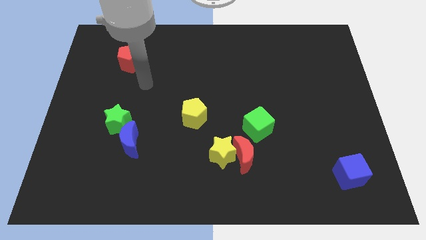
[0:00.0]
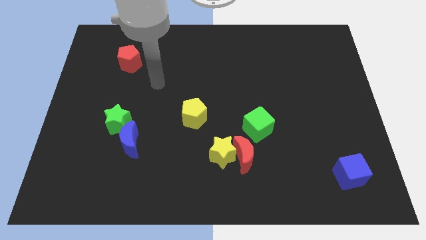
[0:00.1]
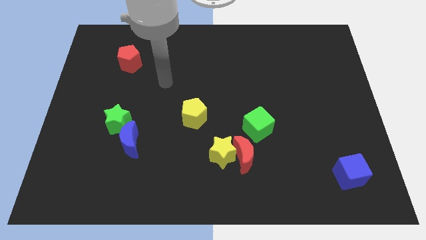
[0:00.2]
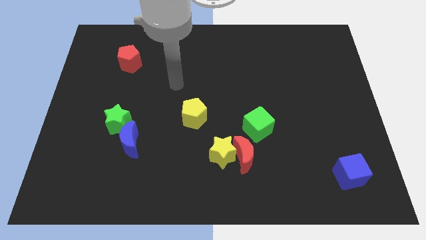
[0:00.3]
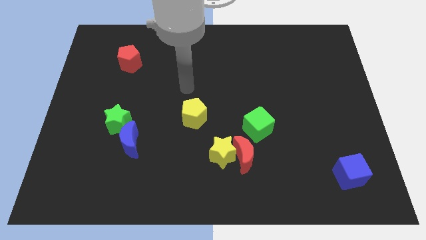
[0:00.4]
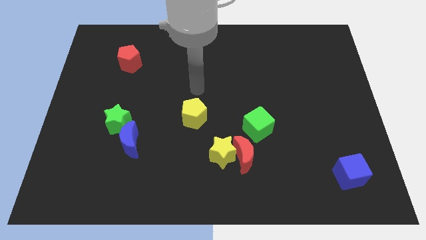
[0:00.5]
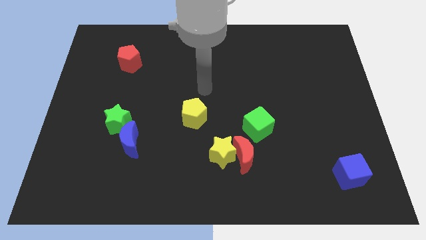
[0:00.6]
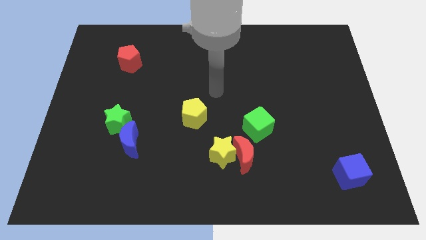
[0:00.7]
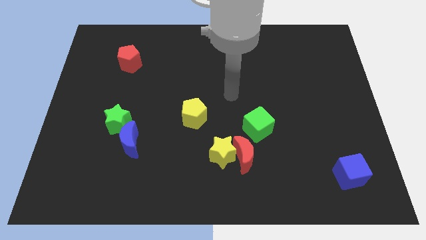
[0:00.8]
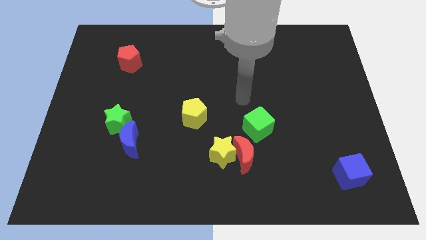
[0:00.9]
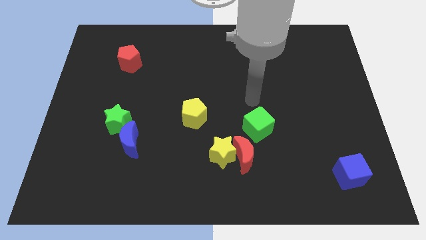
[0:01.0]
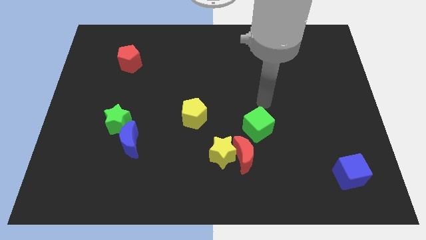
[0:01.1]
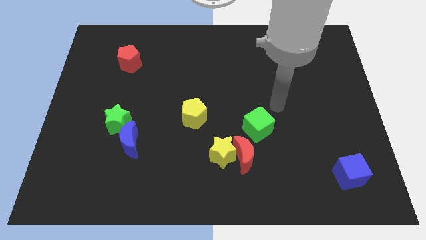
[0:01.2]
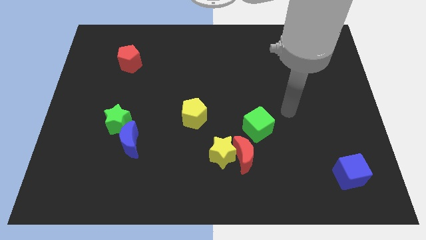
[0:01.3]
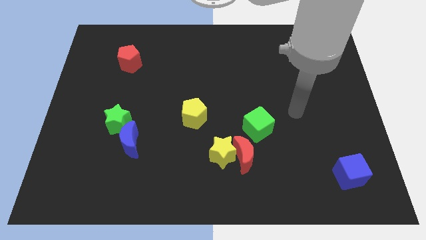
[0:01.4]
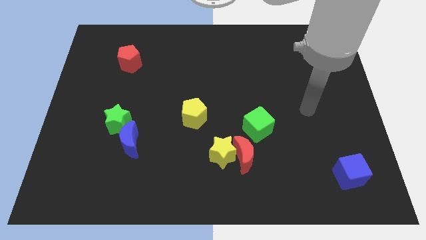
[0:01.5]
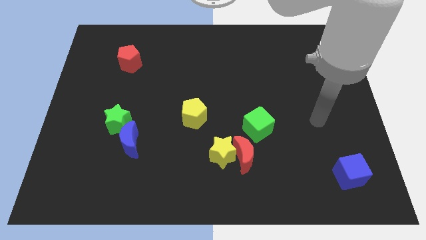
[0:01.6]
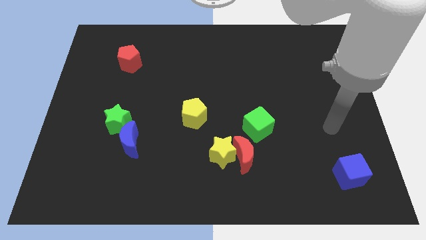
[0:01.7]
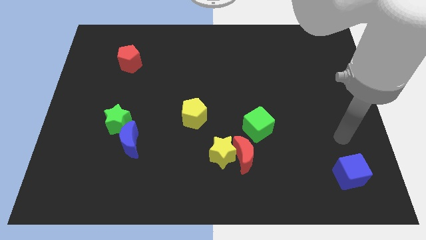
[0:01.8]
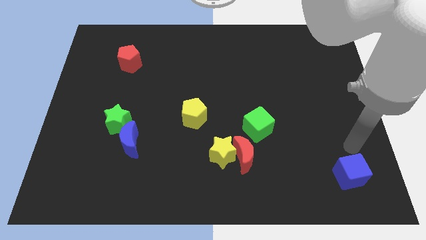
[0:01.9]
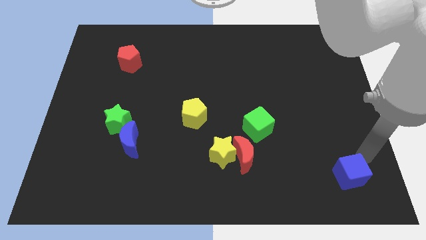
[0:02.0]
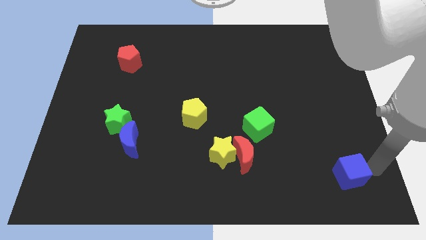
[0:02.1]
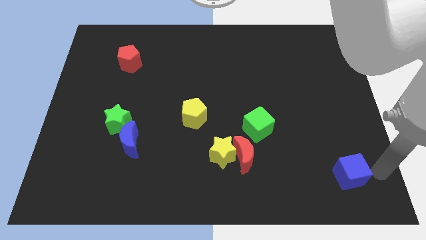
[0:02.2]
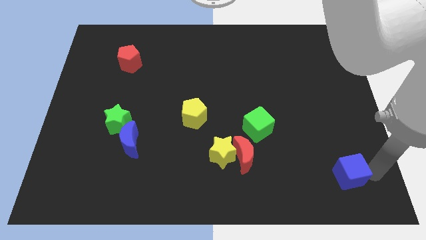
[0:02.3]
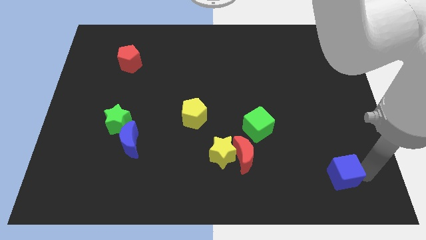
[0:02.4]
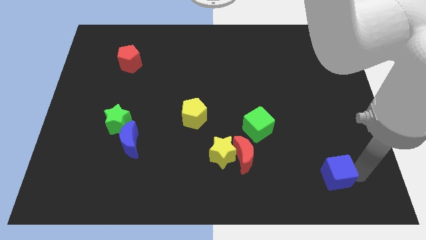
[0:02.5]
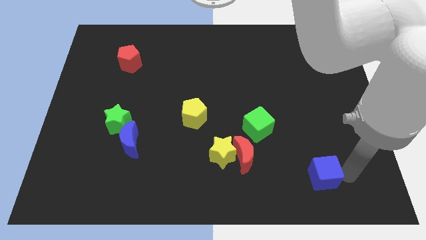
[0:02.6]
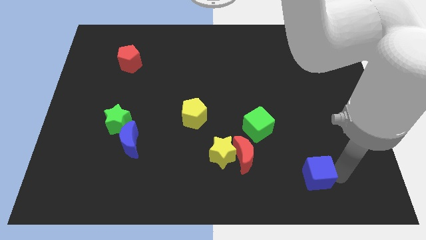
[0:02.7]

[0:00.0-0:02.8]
move the blue cube to the left slightly

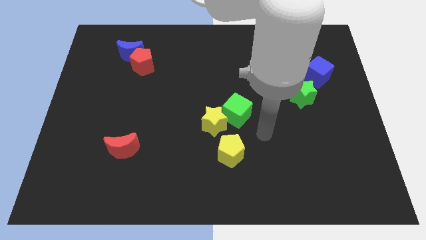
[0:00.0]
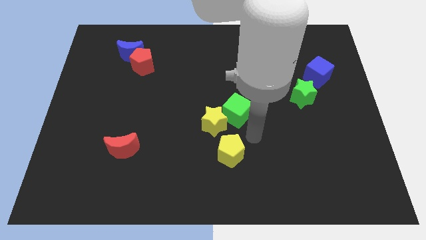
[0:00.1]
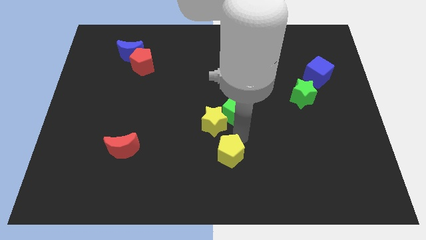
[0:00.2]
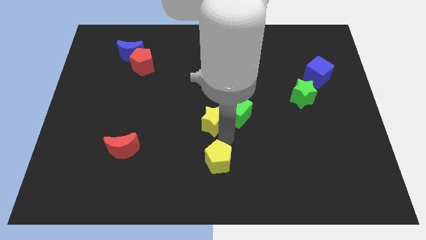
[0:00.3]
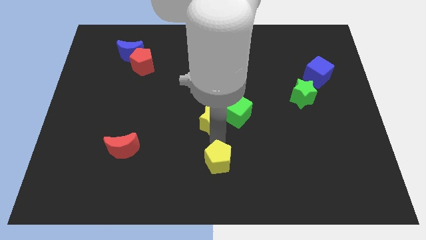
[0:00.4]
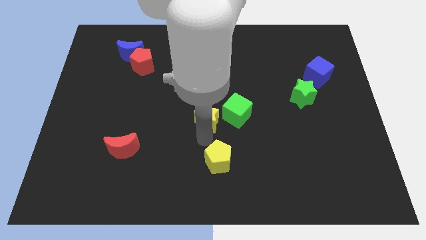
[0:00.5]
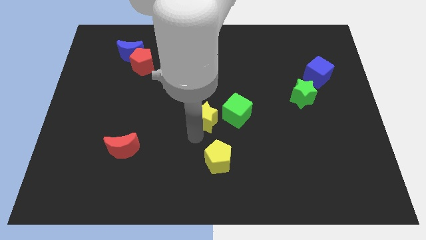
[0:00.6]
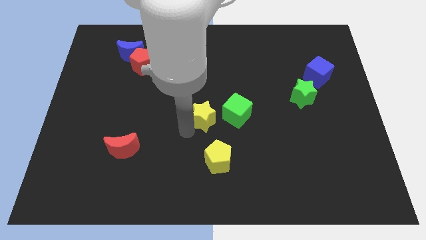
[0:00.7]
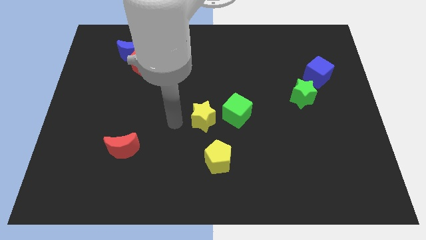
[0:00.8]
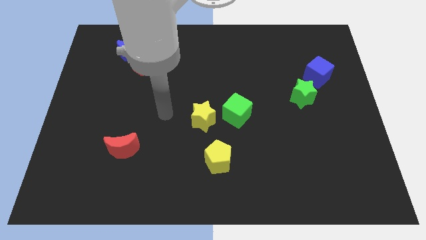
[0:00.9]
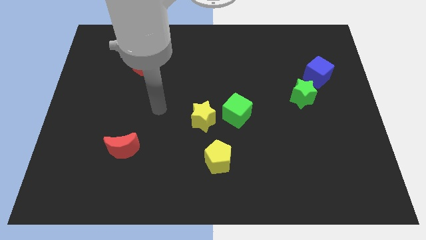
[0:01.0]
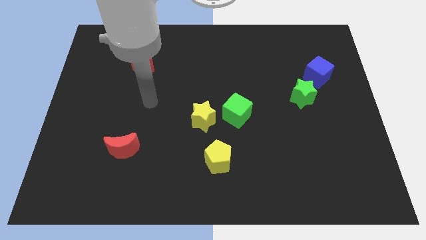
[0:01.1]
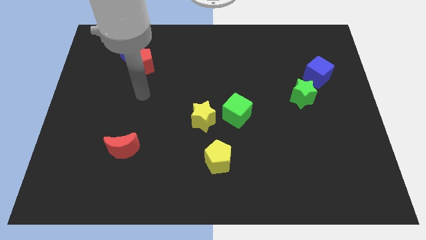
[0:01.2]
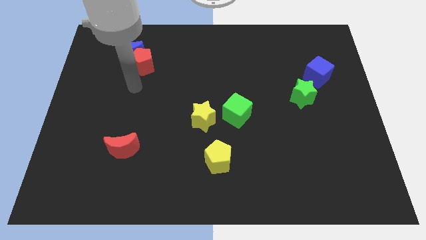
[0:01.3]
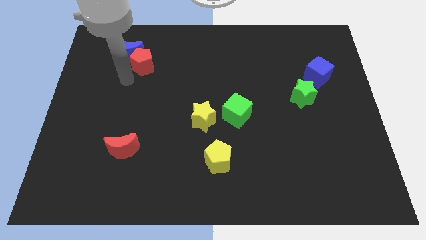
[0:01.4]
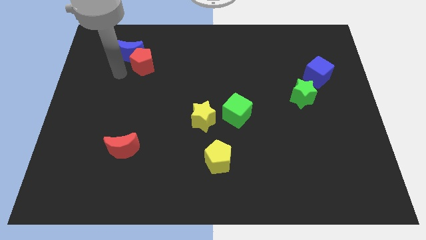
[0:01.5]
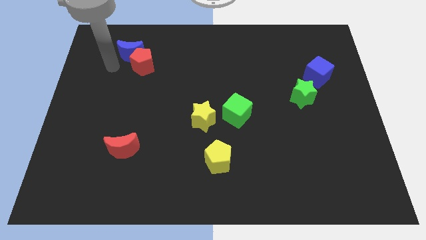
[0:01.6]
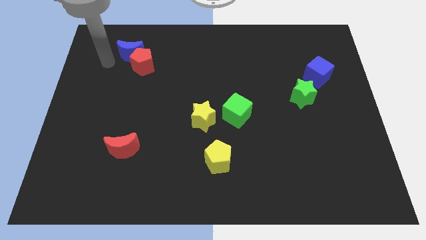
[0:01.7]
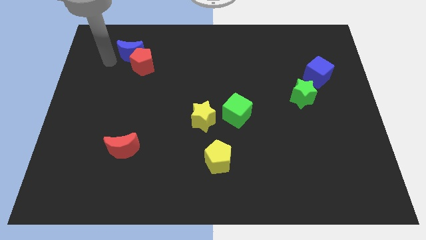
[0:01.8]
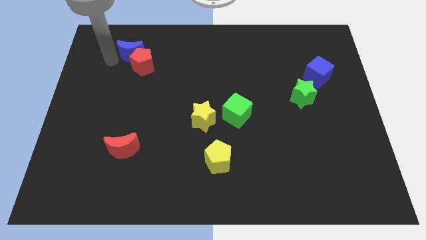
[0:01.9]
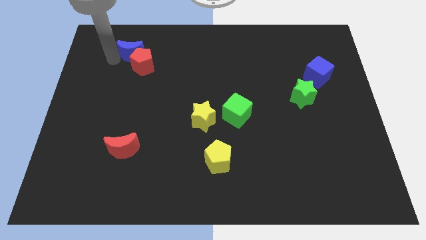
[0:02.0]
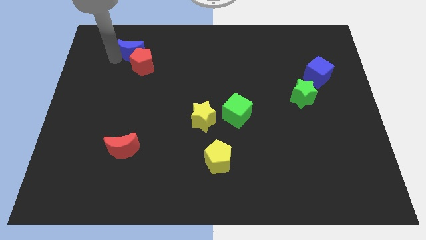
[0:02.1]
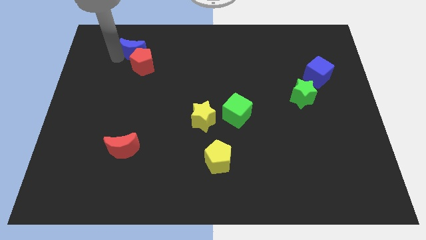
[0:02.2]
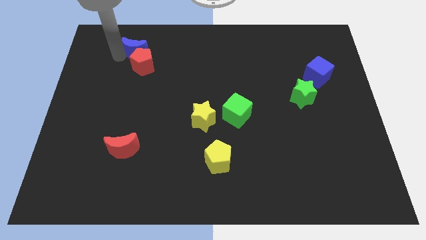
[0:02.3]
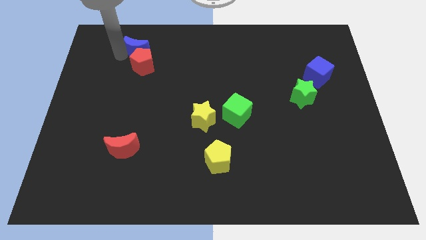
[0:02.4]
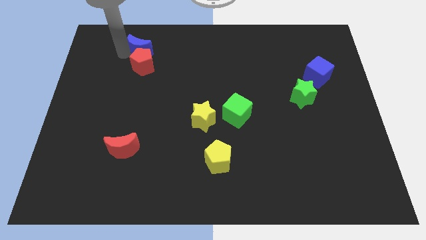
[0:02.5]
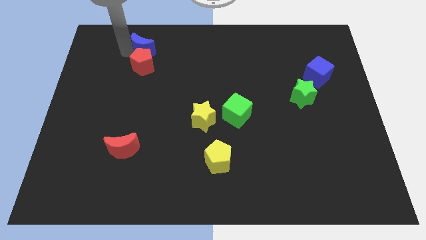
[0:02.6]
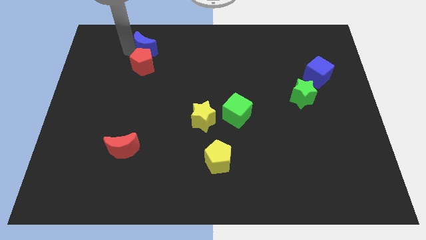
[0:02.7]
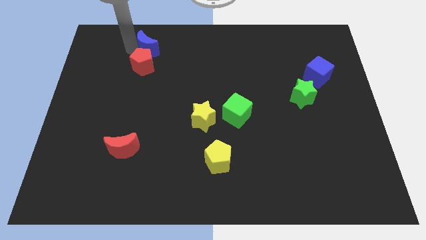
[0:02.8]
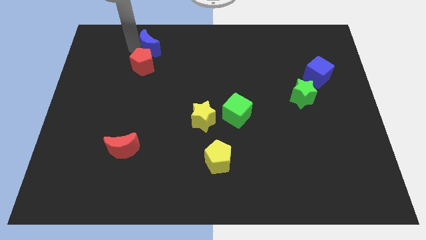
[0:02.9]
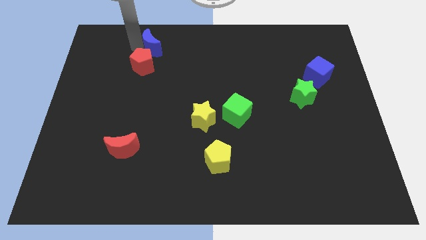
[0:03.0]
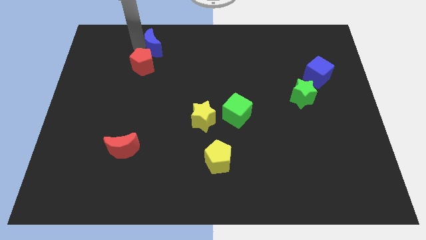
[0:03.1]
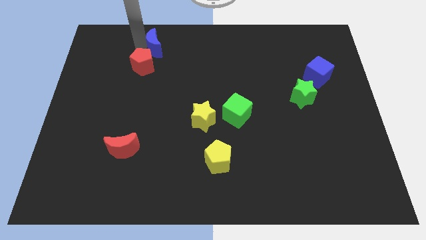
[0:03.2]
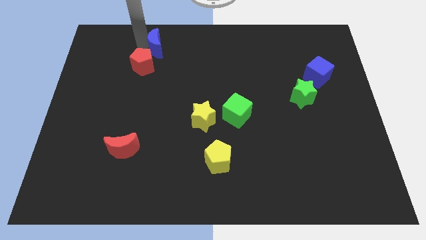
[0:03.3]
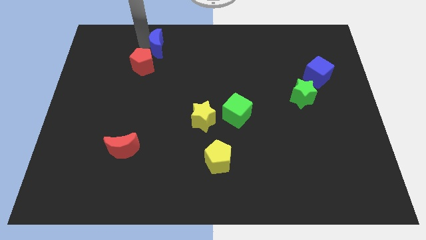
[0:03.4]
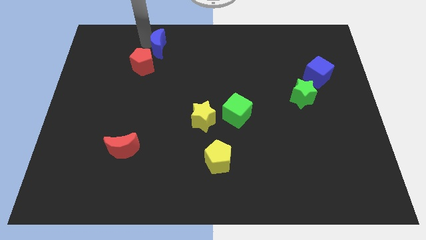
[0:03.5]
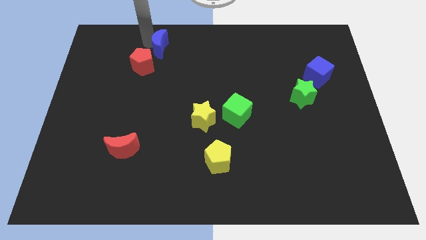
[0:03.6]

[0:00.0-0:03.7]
slightly push the blue moon right

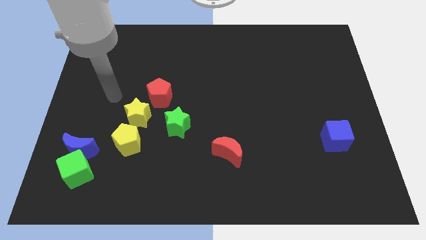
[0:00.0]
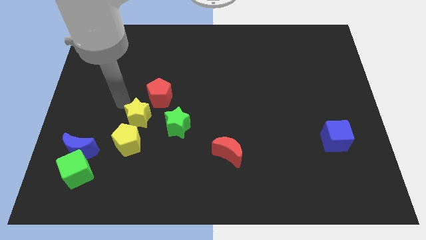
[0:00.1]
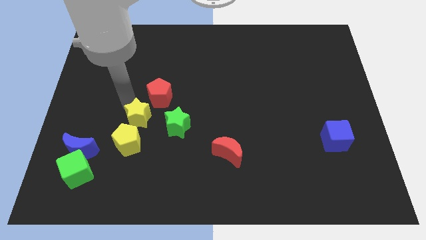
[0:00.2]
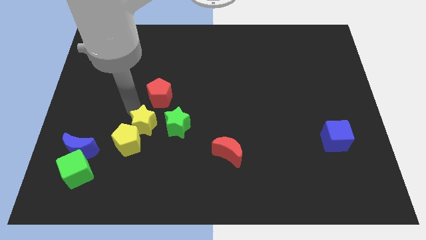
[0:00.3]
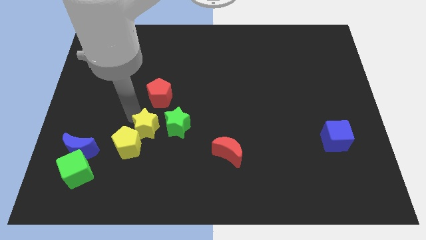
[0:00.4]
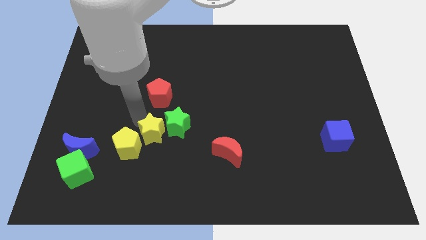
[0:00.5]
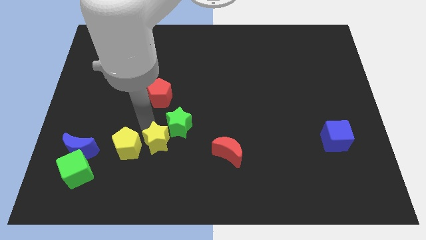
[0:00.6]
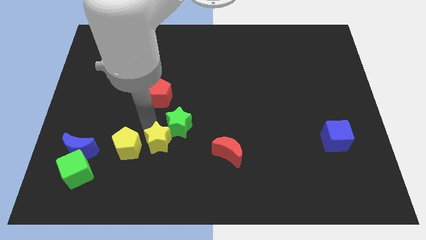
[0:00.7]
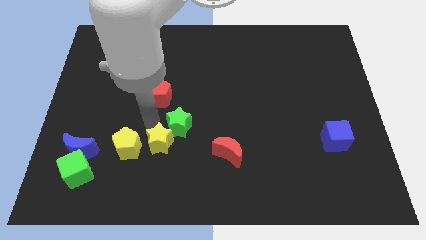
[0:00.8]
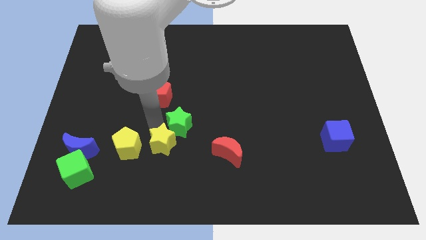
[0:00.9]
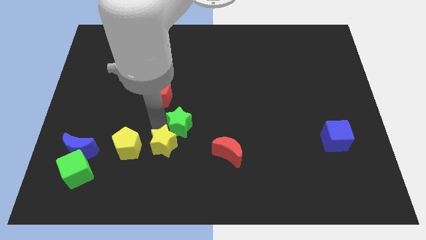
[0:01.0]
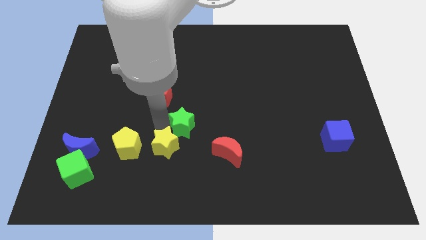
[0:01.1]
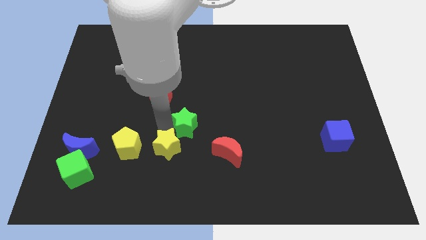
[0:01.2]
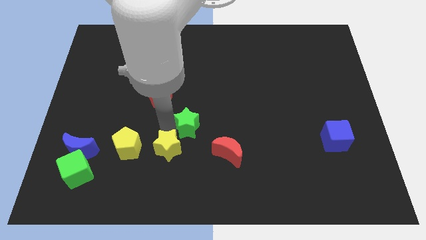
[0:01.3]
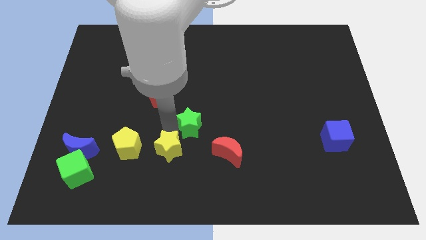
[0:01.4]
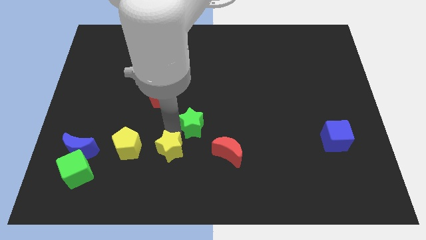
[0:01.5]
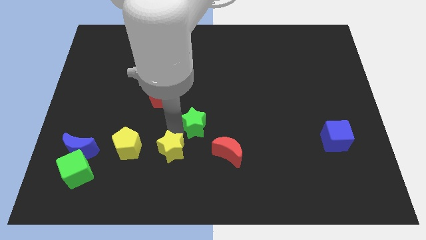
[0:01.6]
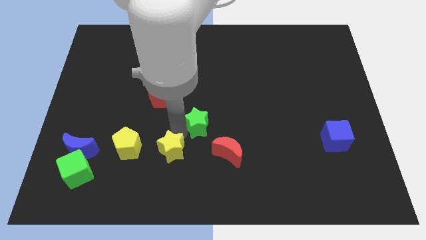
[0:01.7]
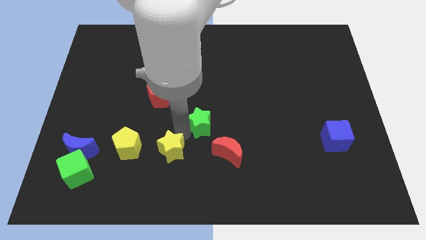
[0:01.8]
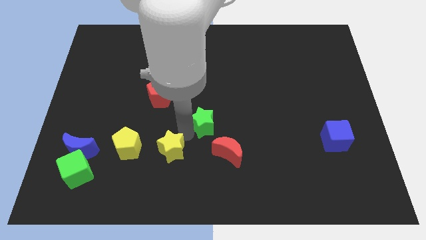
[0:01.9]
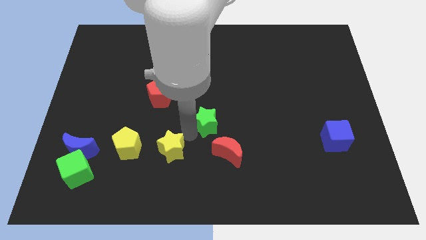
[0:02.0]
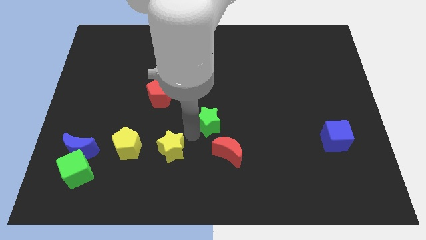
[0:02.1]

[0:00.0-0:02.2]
move the green star a little right

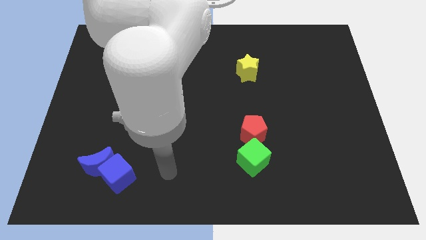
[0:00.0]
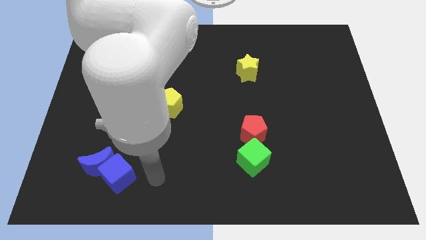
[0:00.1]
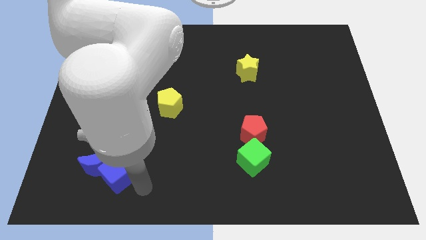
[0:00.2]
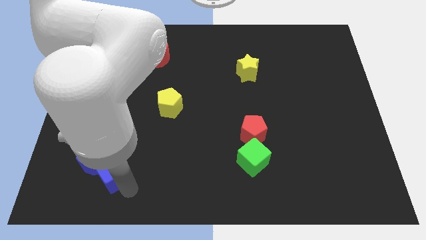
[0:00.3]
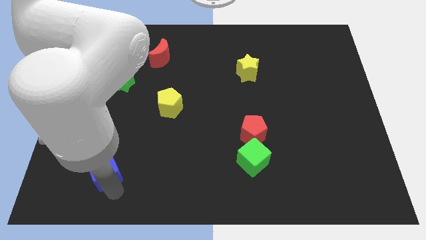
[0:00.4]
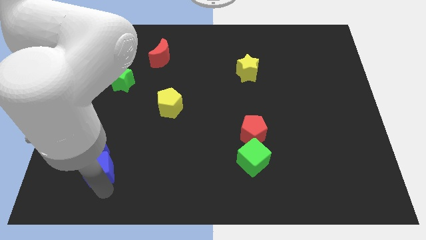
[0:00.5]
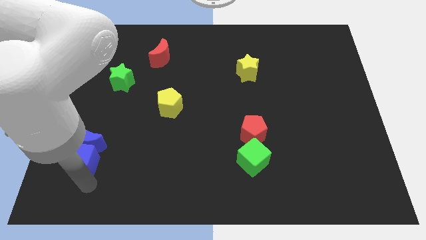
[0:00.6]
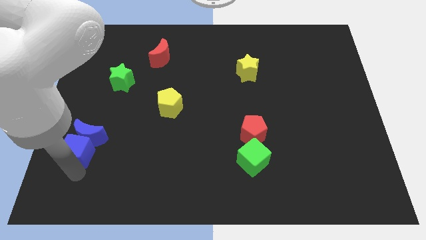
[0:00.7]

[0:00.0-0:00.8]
slide the blue moon a little up
